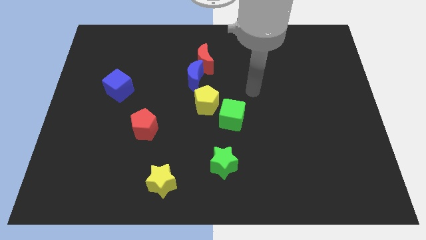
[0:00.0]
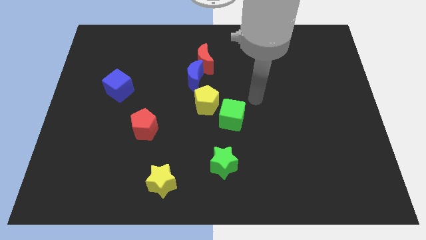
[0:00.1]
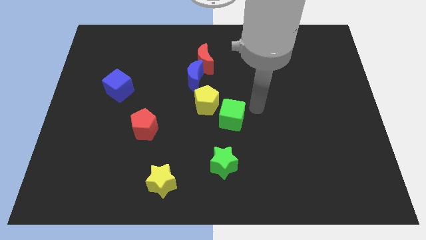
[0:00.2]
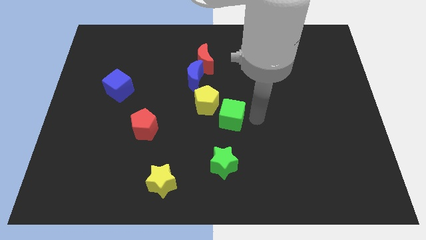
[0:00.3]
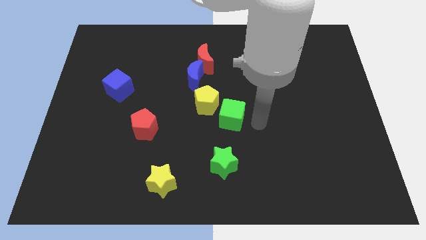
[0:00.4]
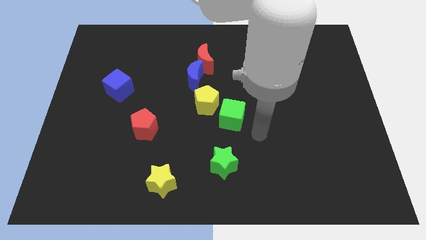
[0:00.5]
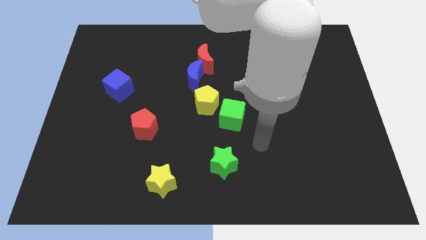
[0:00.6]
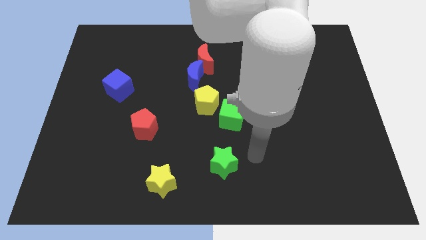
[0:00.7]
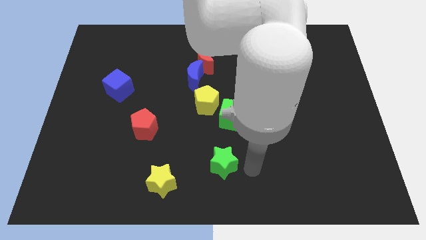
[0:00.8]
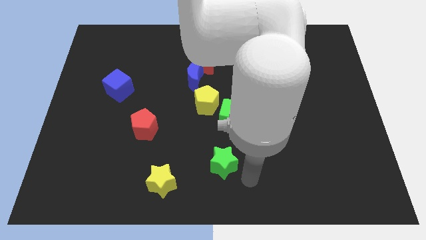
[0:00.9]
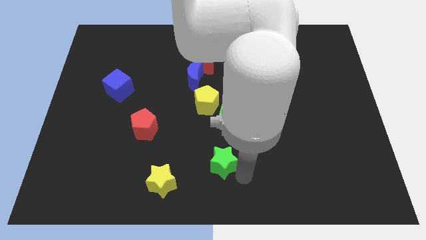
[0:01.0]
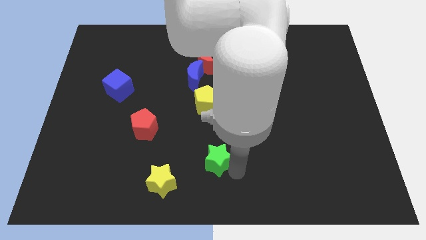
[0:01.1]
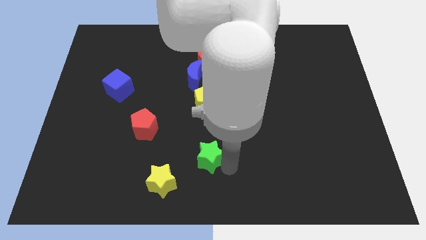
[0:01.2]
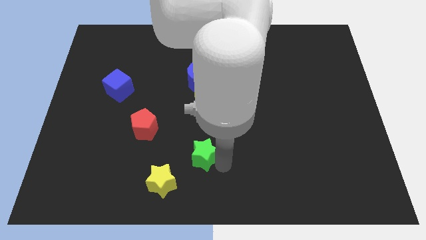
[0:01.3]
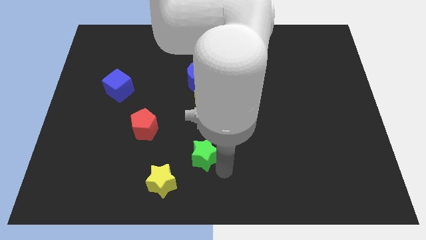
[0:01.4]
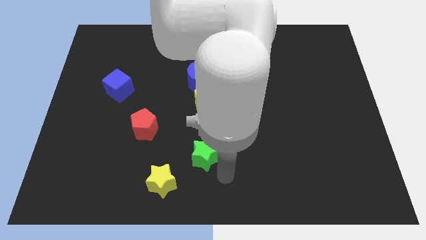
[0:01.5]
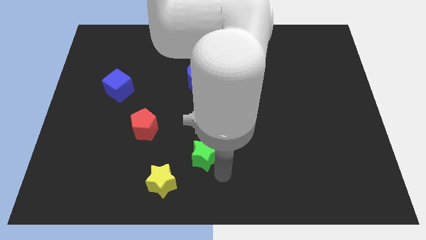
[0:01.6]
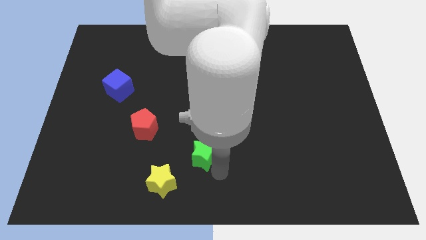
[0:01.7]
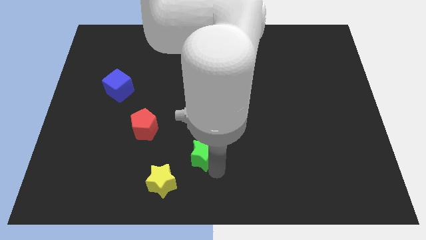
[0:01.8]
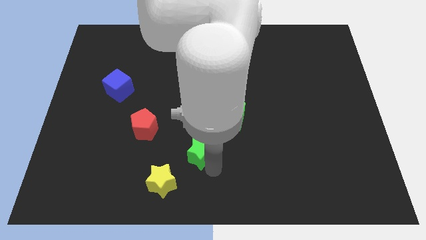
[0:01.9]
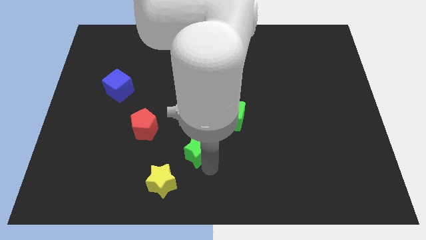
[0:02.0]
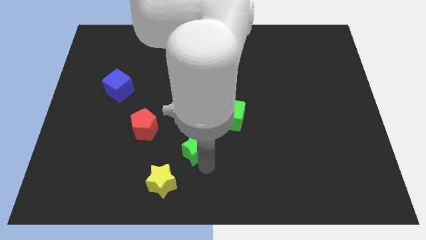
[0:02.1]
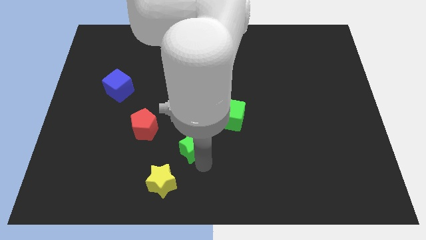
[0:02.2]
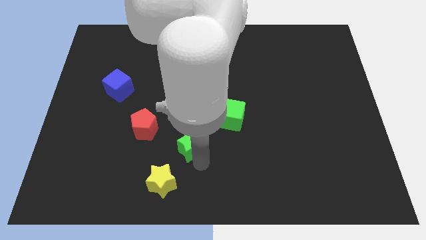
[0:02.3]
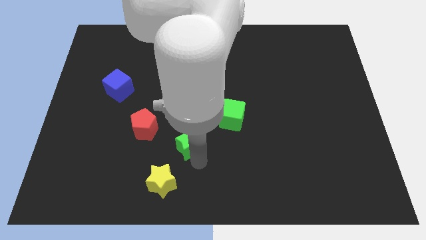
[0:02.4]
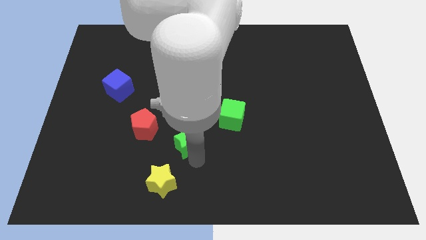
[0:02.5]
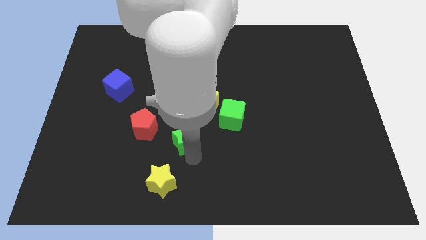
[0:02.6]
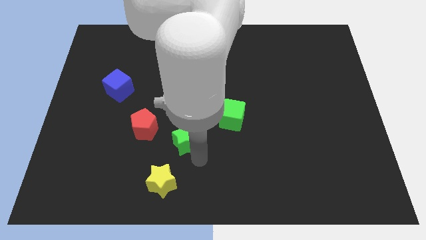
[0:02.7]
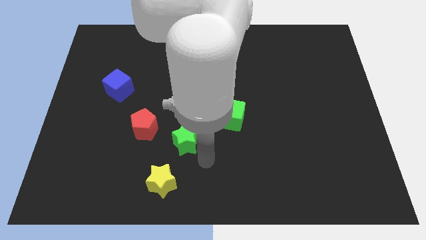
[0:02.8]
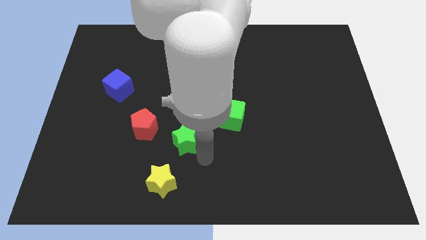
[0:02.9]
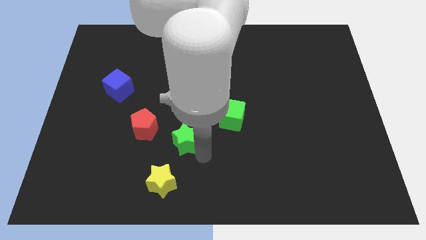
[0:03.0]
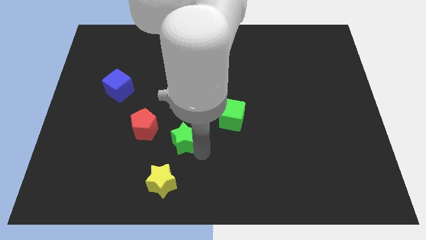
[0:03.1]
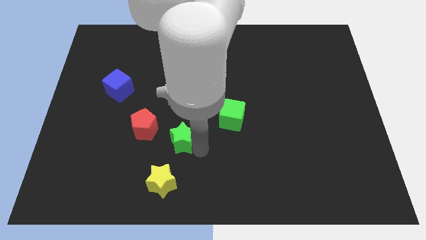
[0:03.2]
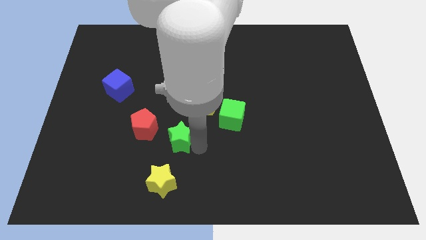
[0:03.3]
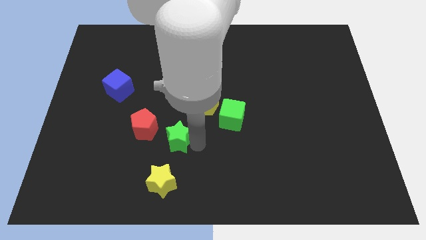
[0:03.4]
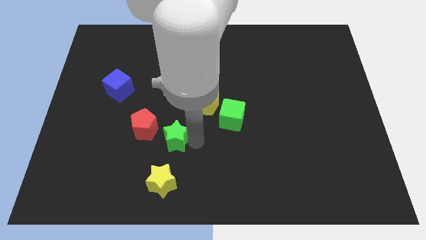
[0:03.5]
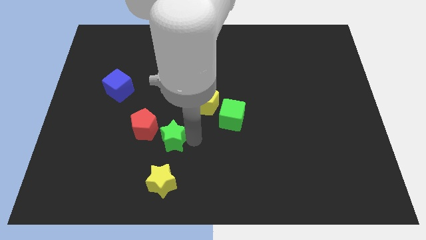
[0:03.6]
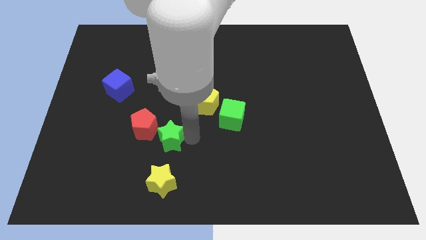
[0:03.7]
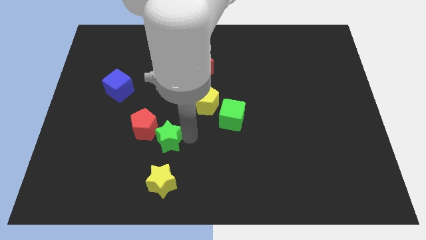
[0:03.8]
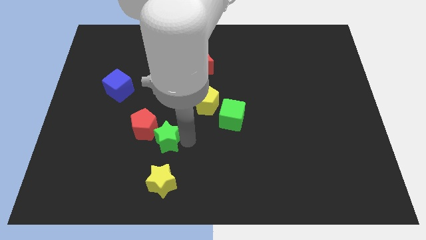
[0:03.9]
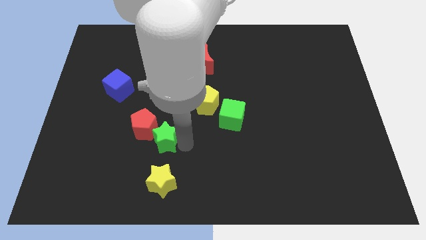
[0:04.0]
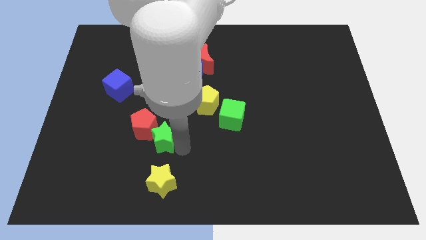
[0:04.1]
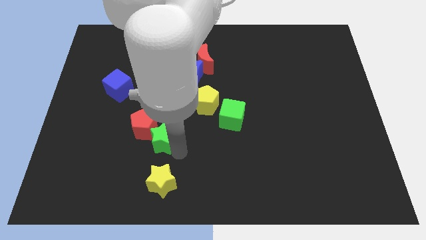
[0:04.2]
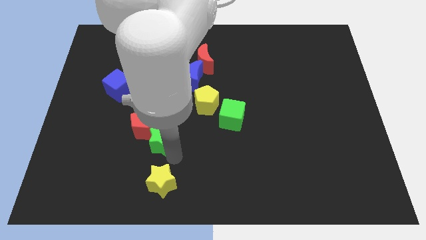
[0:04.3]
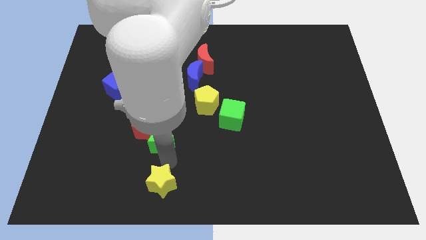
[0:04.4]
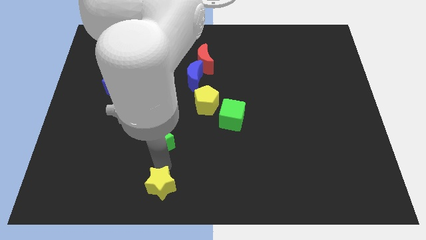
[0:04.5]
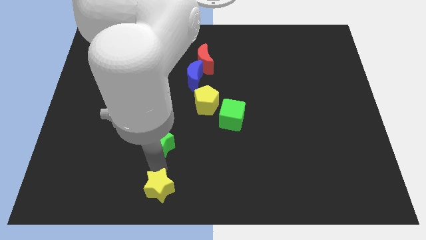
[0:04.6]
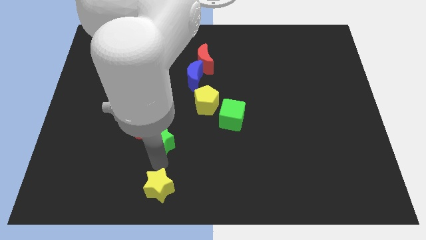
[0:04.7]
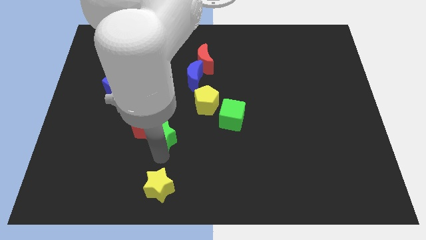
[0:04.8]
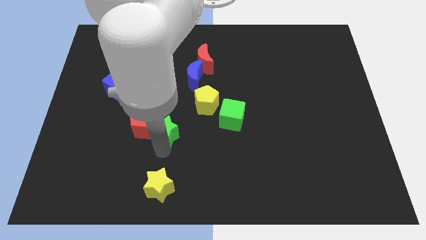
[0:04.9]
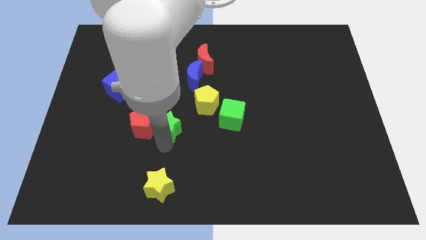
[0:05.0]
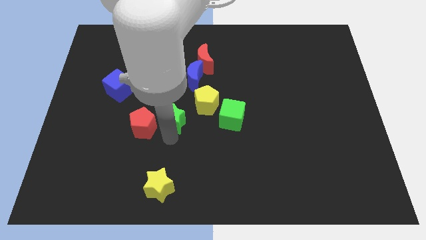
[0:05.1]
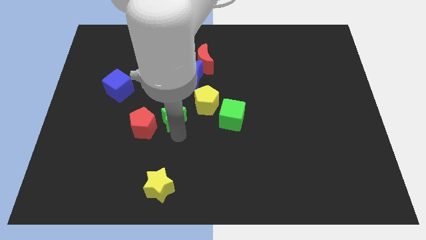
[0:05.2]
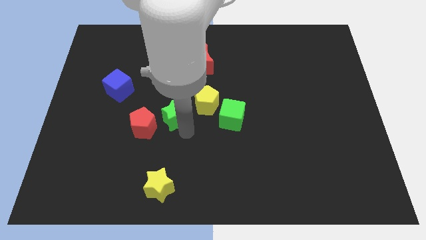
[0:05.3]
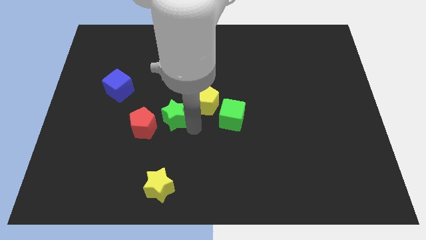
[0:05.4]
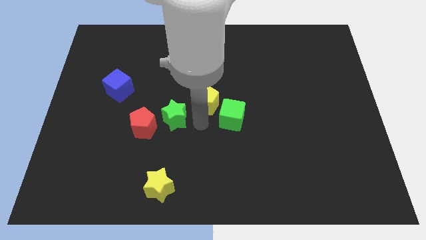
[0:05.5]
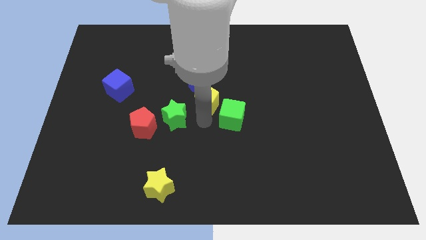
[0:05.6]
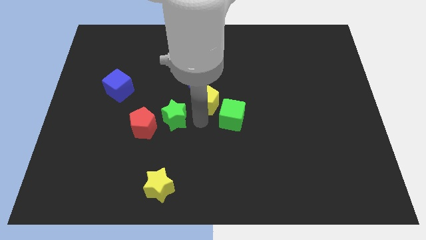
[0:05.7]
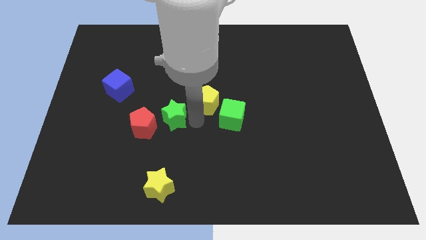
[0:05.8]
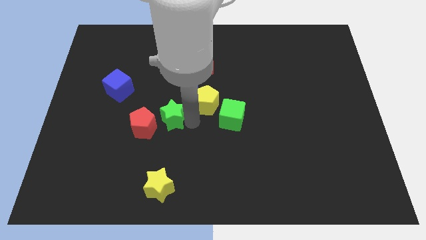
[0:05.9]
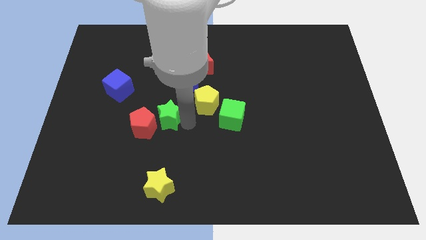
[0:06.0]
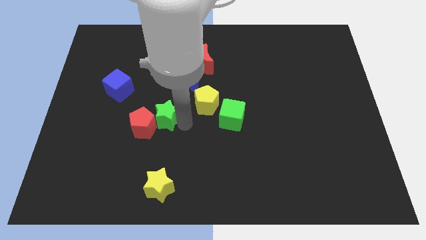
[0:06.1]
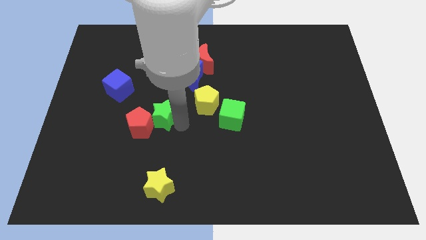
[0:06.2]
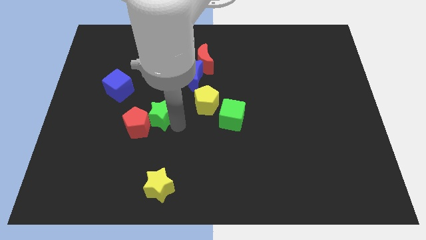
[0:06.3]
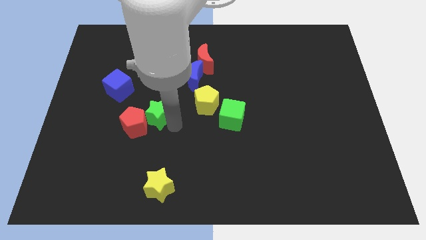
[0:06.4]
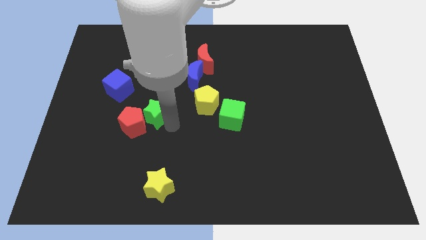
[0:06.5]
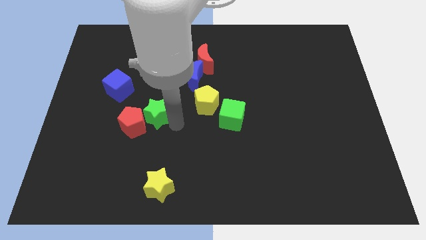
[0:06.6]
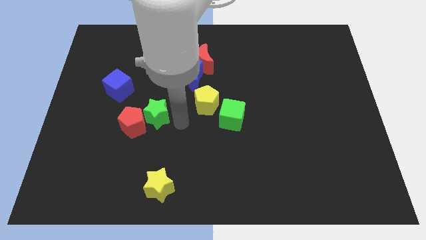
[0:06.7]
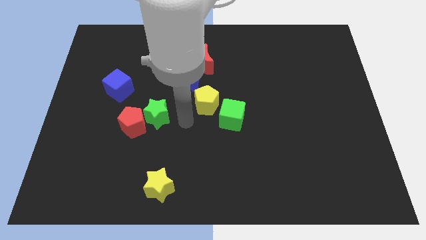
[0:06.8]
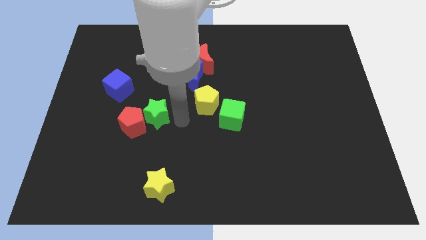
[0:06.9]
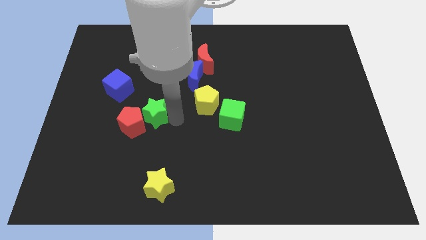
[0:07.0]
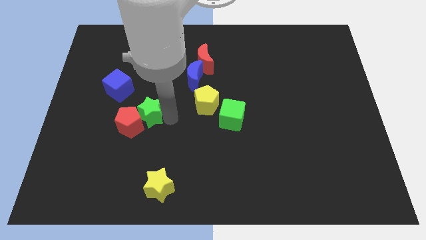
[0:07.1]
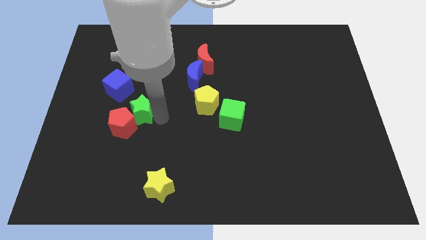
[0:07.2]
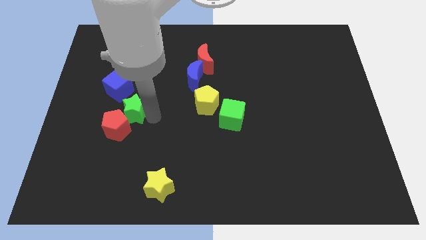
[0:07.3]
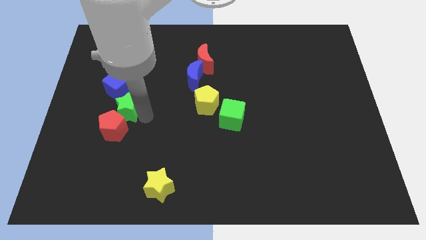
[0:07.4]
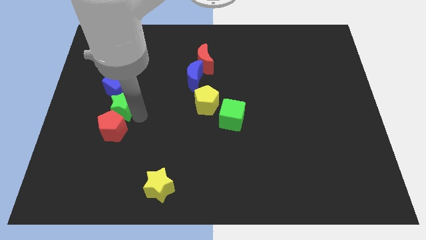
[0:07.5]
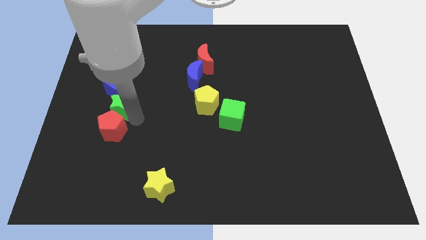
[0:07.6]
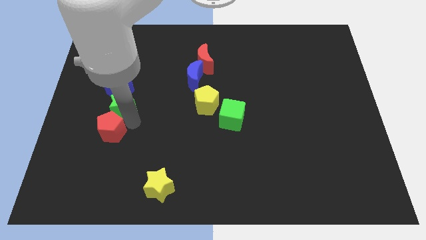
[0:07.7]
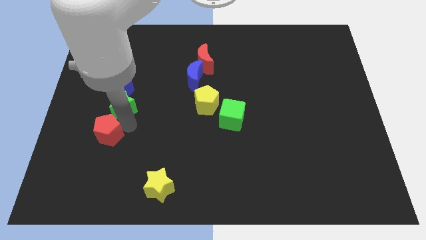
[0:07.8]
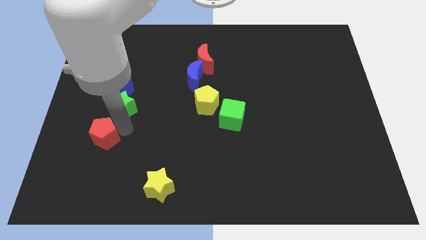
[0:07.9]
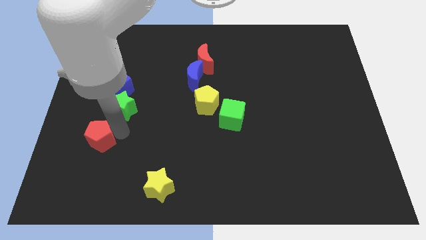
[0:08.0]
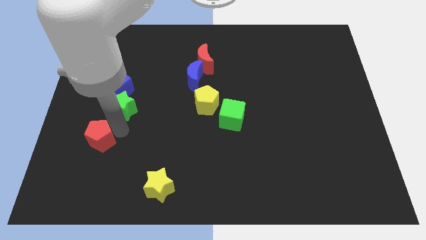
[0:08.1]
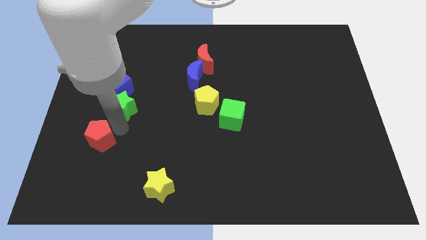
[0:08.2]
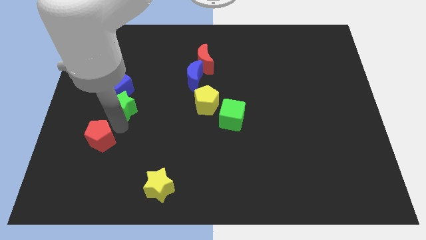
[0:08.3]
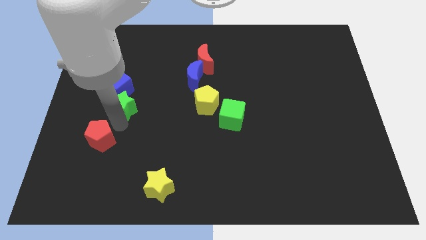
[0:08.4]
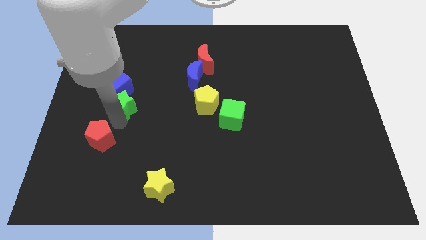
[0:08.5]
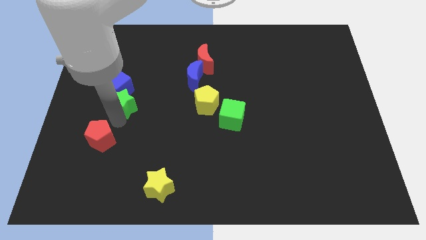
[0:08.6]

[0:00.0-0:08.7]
move the green star next to the blue cube
